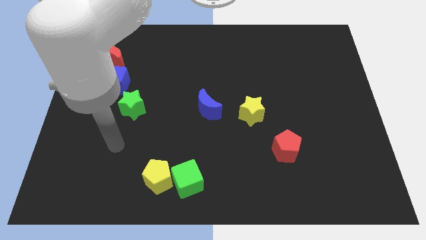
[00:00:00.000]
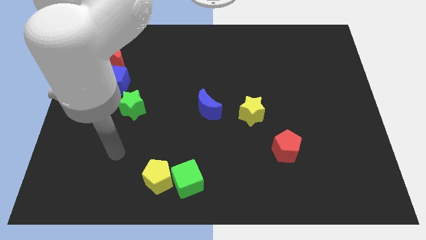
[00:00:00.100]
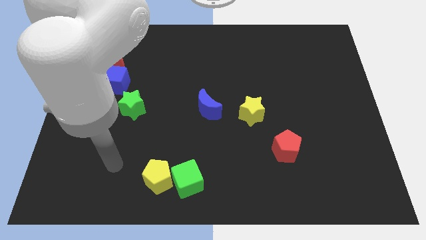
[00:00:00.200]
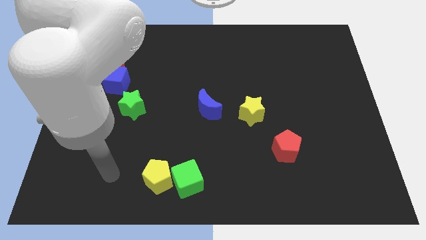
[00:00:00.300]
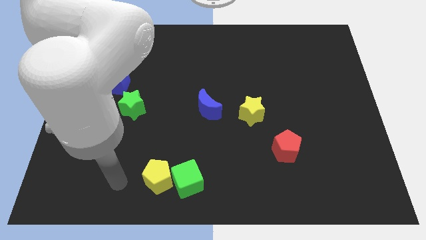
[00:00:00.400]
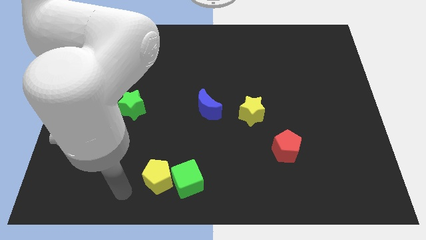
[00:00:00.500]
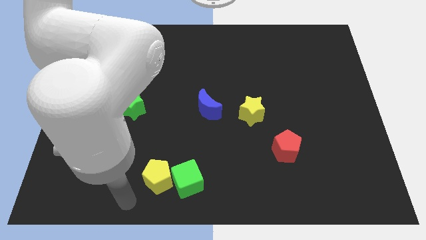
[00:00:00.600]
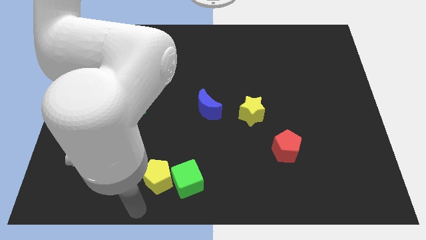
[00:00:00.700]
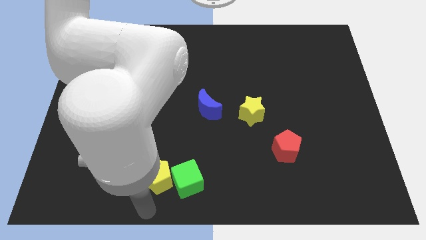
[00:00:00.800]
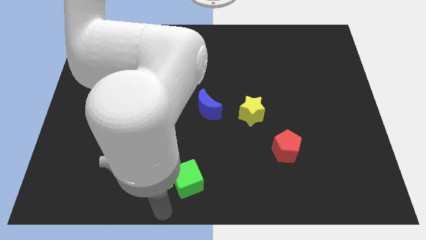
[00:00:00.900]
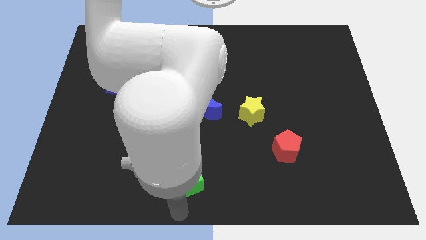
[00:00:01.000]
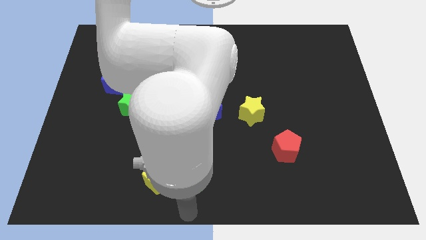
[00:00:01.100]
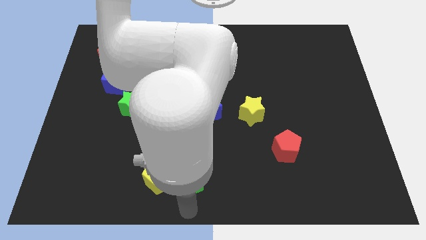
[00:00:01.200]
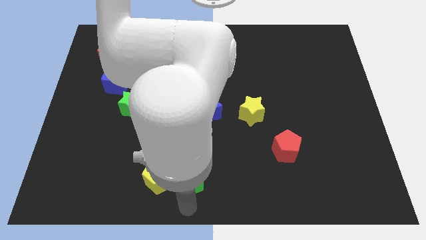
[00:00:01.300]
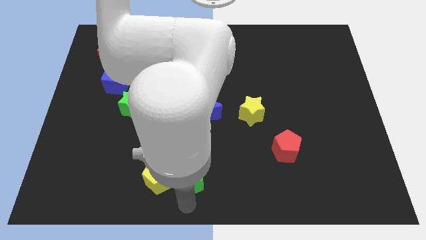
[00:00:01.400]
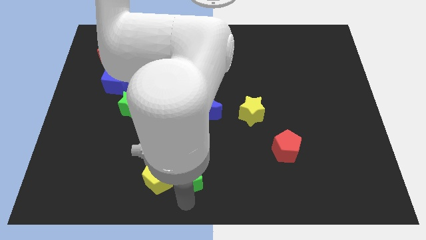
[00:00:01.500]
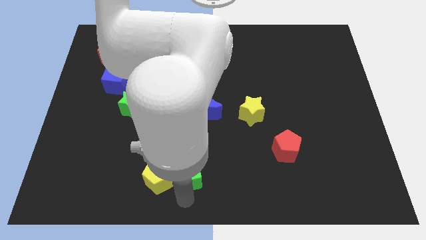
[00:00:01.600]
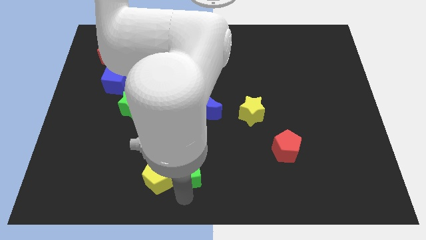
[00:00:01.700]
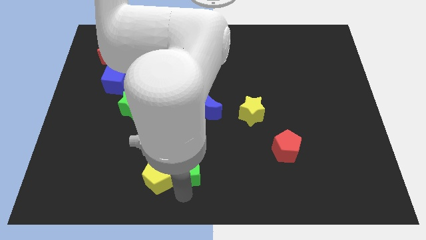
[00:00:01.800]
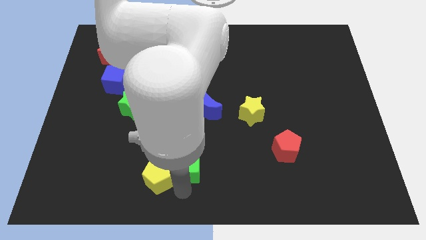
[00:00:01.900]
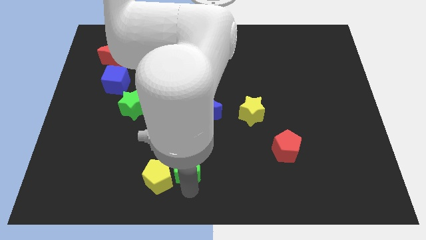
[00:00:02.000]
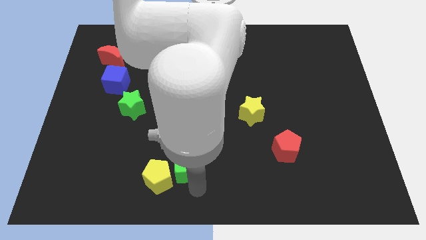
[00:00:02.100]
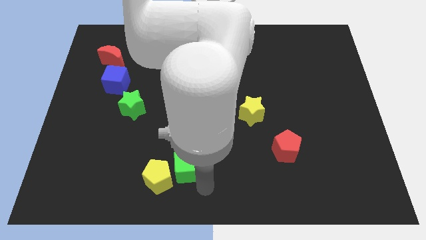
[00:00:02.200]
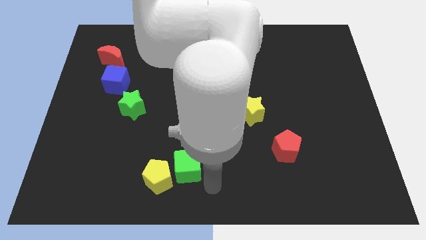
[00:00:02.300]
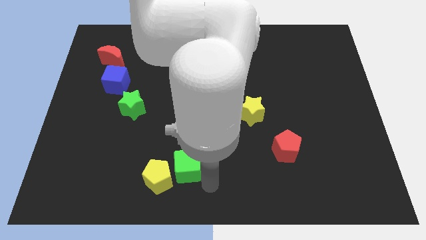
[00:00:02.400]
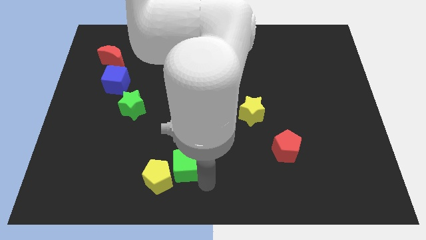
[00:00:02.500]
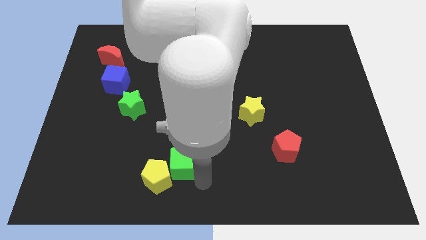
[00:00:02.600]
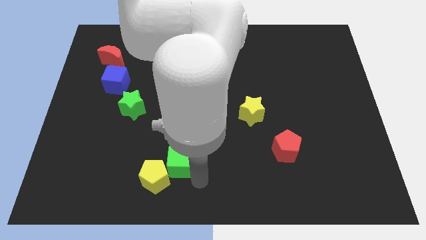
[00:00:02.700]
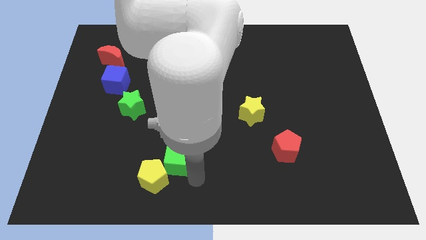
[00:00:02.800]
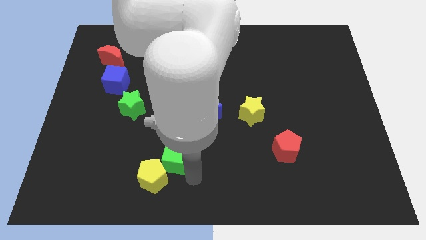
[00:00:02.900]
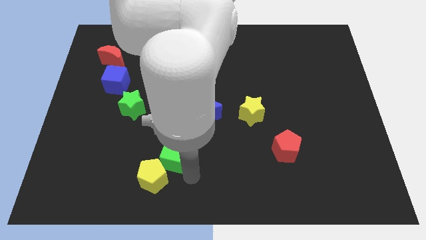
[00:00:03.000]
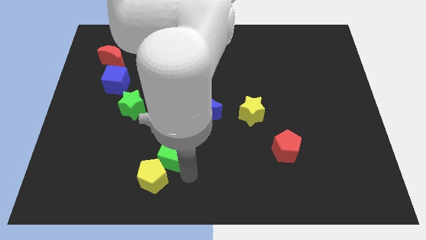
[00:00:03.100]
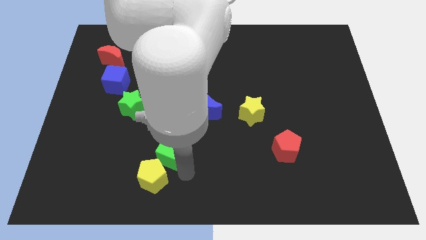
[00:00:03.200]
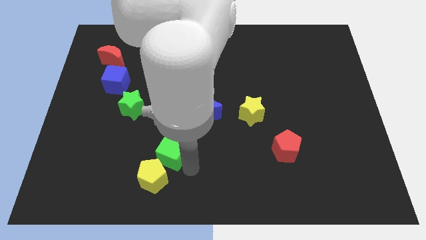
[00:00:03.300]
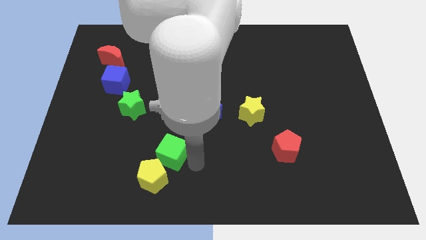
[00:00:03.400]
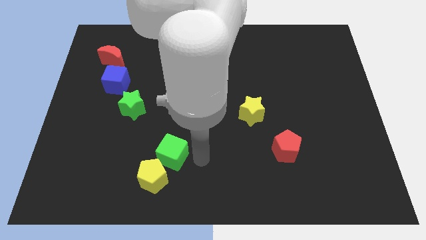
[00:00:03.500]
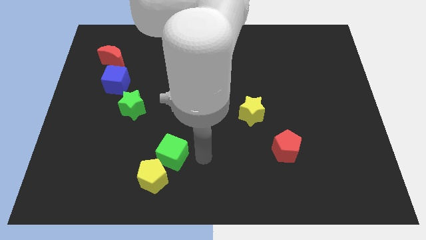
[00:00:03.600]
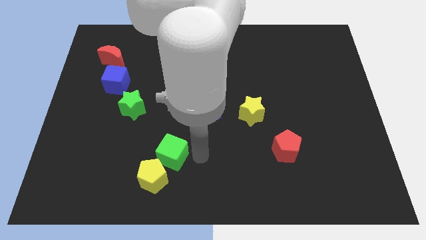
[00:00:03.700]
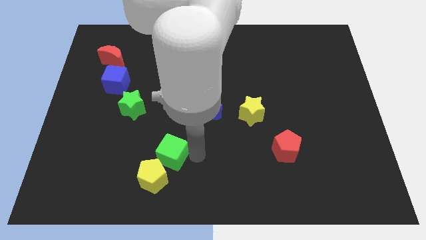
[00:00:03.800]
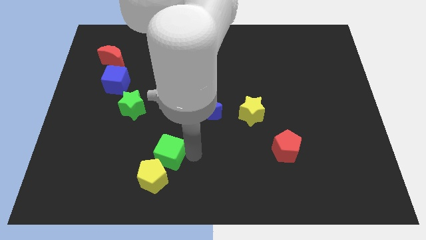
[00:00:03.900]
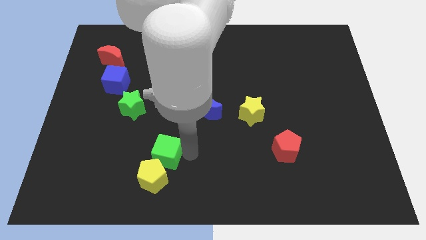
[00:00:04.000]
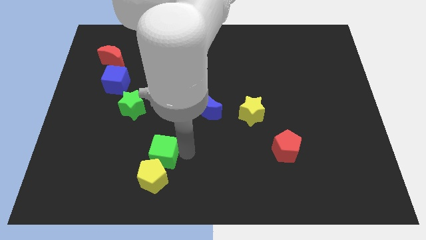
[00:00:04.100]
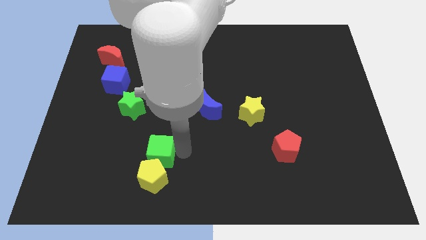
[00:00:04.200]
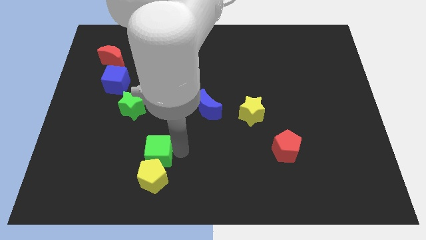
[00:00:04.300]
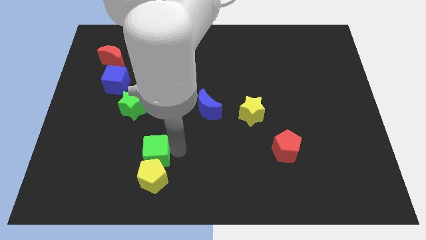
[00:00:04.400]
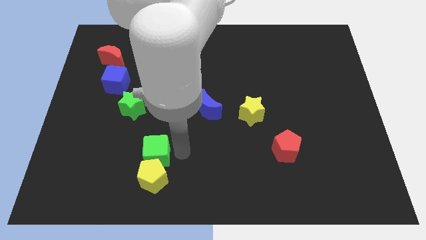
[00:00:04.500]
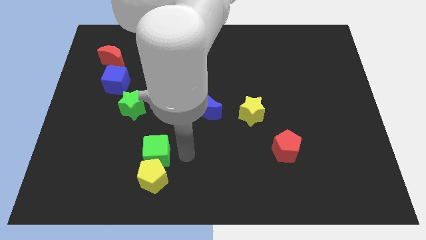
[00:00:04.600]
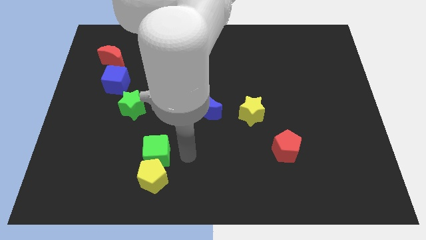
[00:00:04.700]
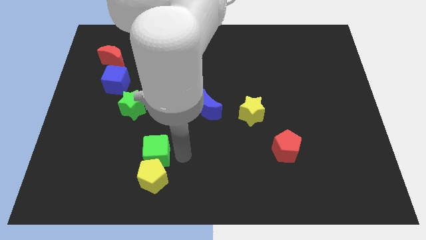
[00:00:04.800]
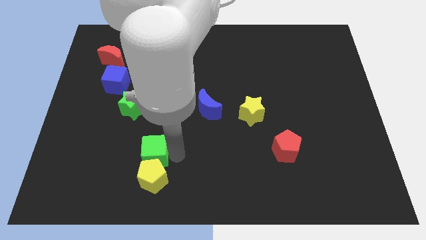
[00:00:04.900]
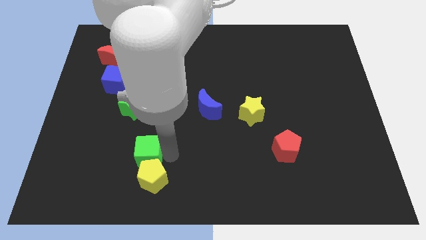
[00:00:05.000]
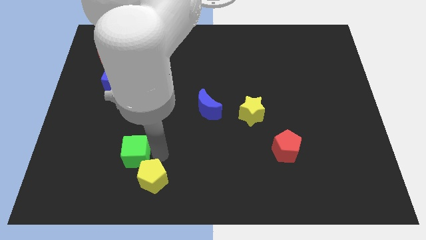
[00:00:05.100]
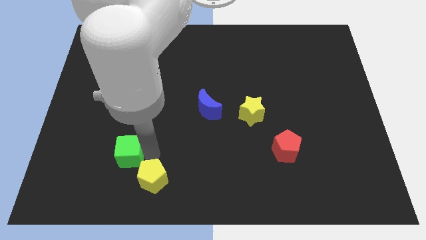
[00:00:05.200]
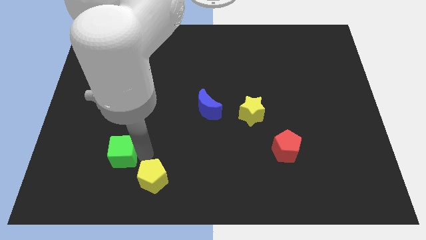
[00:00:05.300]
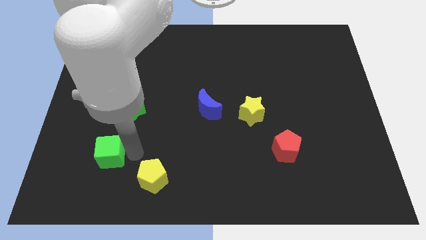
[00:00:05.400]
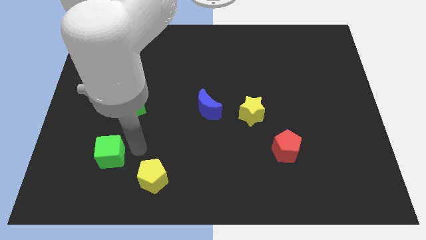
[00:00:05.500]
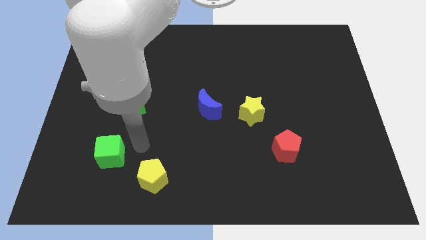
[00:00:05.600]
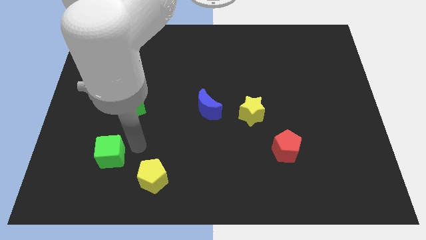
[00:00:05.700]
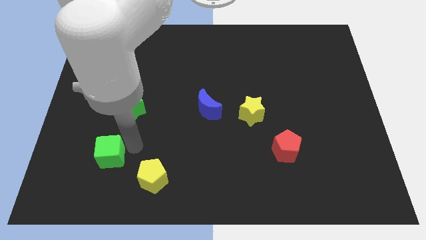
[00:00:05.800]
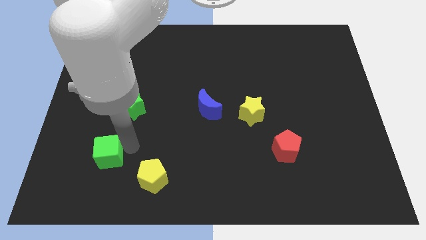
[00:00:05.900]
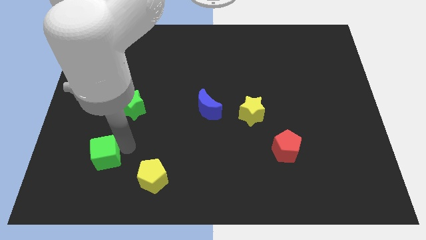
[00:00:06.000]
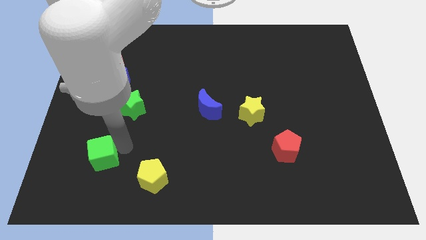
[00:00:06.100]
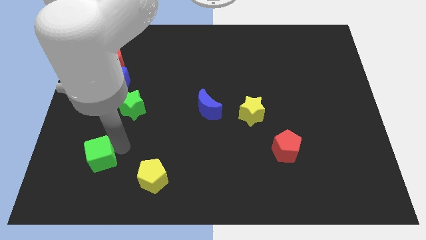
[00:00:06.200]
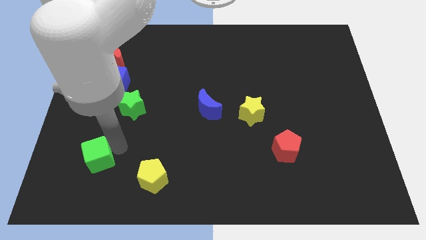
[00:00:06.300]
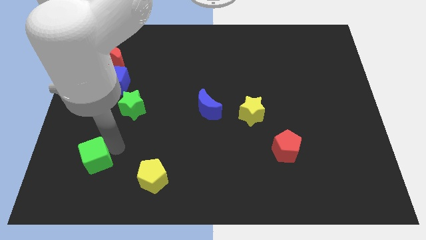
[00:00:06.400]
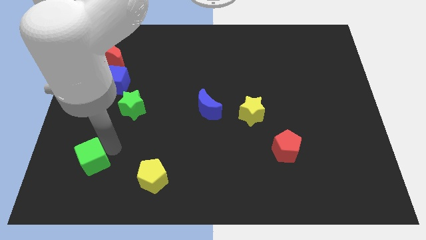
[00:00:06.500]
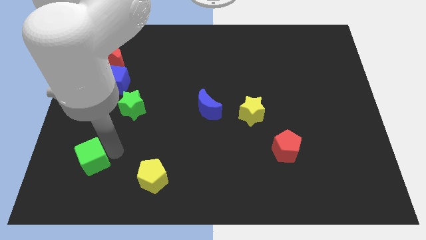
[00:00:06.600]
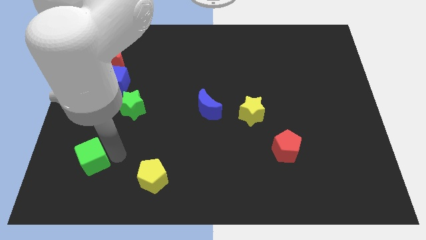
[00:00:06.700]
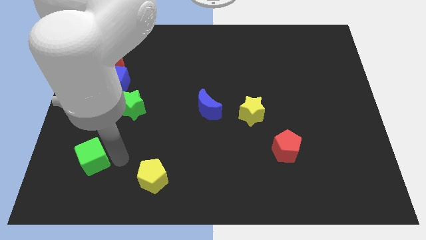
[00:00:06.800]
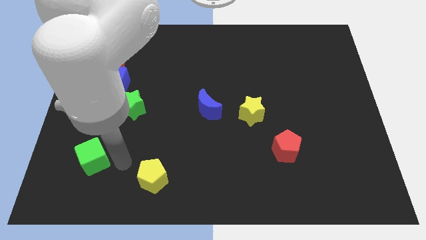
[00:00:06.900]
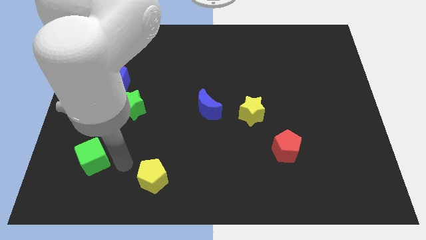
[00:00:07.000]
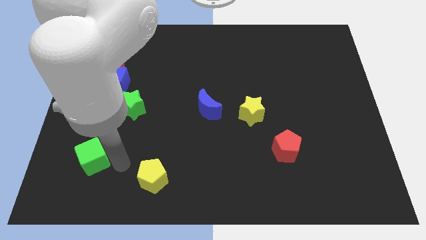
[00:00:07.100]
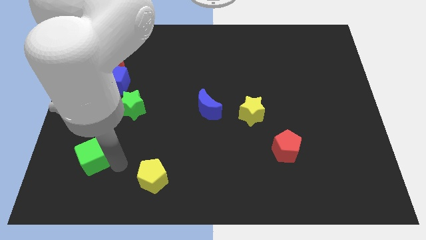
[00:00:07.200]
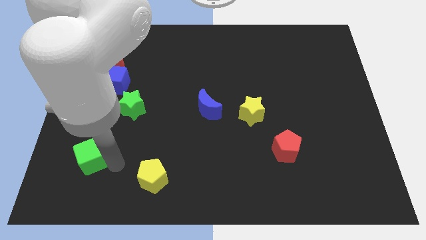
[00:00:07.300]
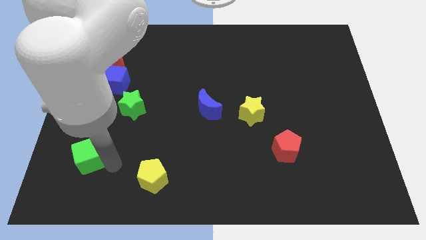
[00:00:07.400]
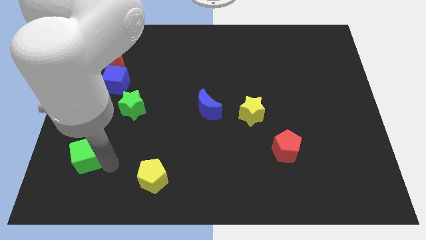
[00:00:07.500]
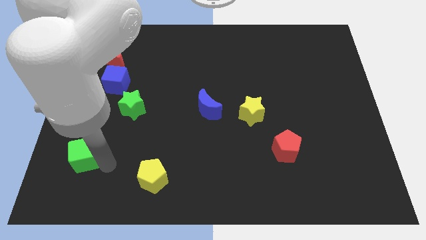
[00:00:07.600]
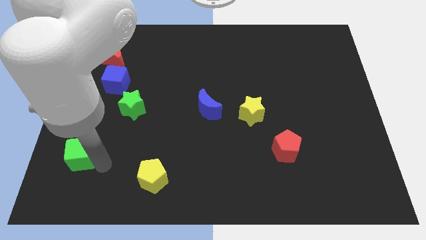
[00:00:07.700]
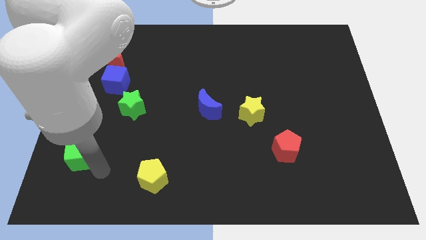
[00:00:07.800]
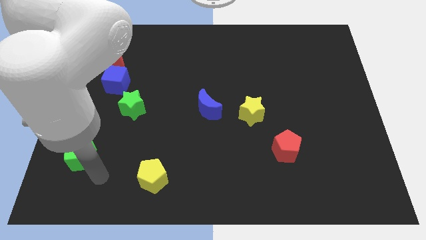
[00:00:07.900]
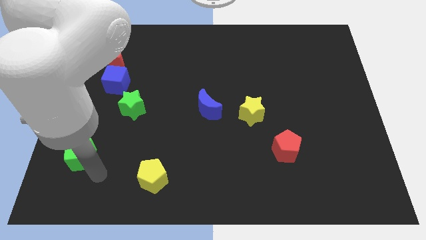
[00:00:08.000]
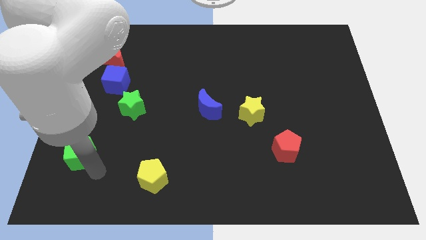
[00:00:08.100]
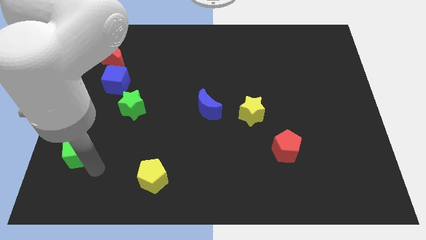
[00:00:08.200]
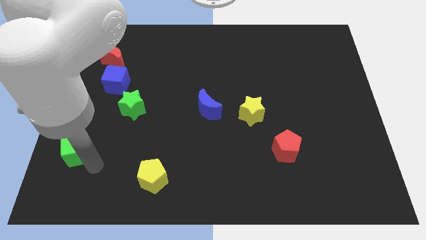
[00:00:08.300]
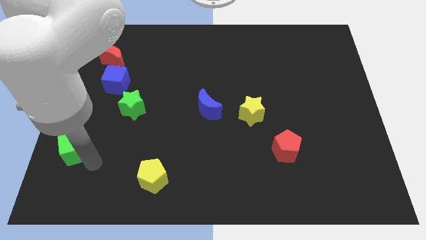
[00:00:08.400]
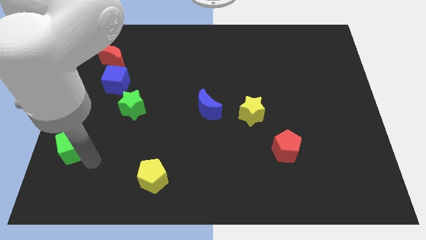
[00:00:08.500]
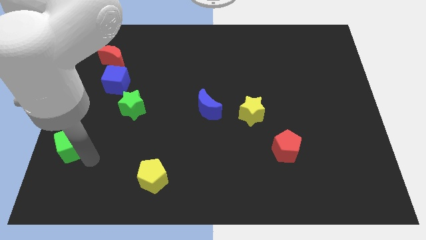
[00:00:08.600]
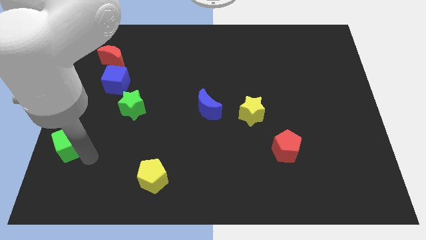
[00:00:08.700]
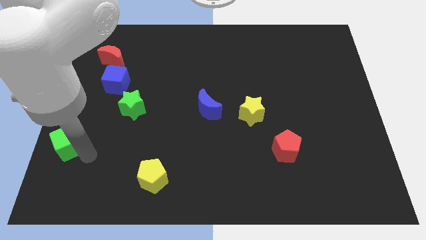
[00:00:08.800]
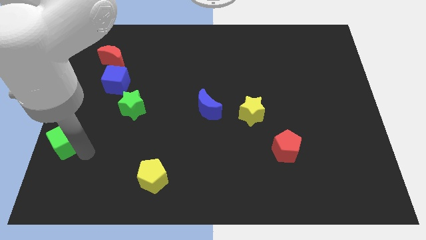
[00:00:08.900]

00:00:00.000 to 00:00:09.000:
slide the green cube to the left side of the board
